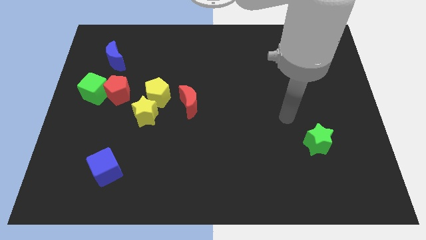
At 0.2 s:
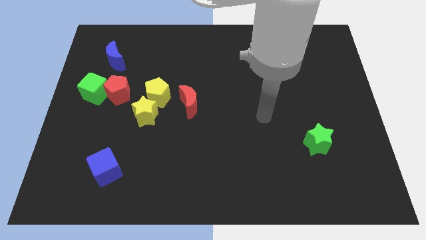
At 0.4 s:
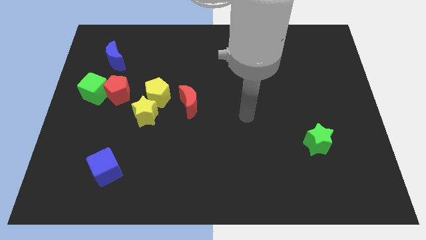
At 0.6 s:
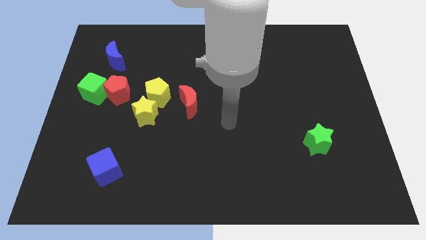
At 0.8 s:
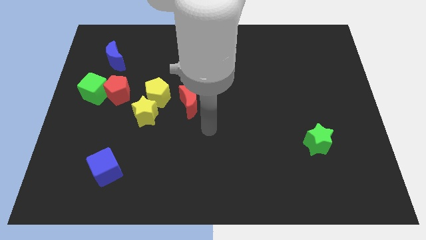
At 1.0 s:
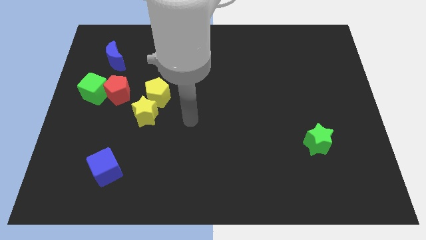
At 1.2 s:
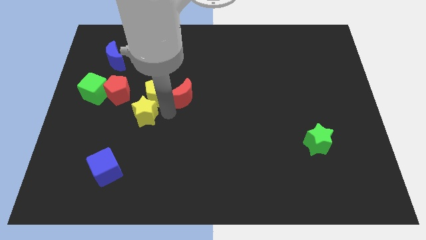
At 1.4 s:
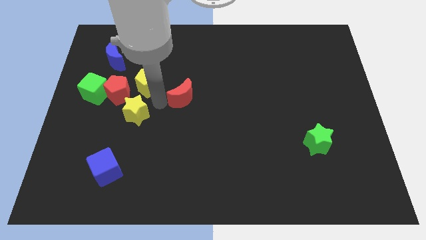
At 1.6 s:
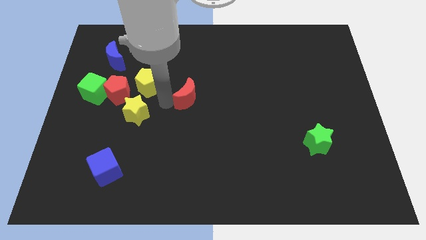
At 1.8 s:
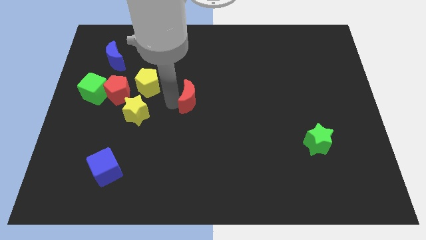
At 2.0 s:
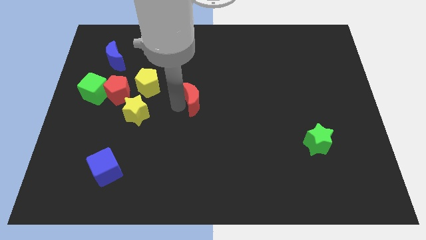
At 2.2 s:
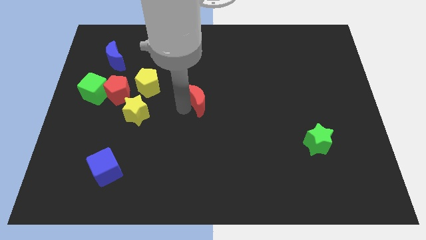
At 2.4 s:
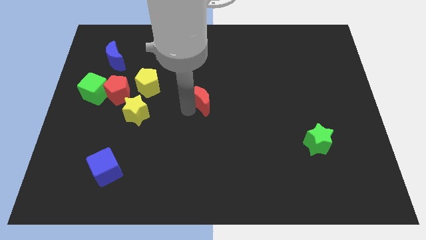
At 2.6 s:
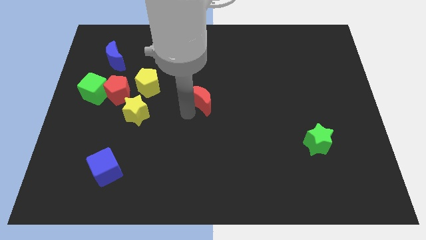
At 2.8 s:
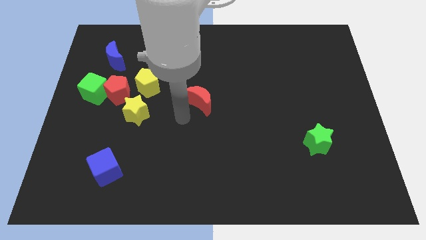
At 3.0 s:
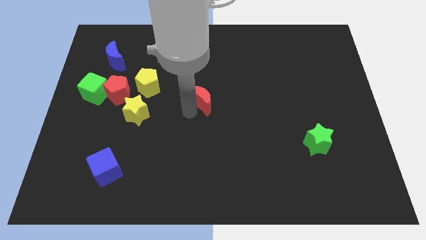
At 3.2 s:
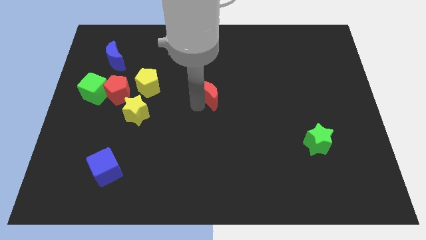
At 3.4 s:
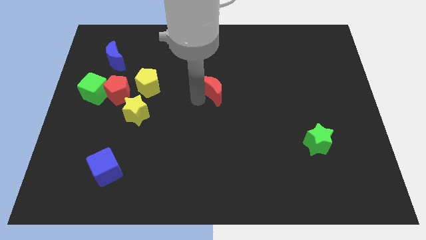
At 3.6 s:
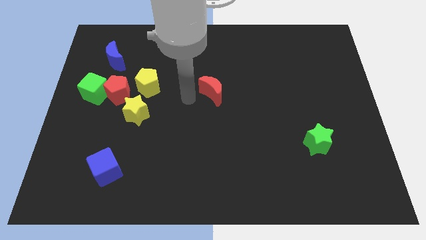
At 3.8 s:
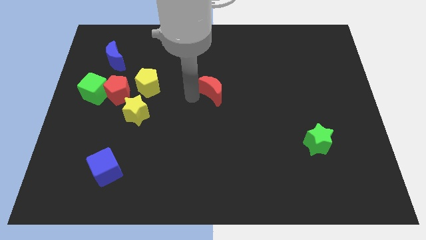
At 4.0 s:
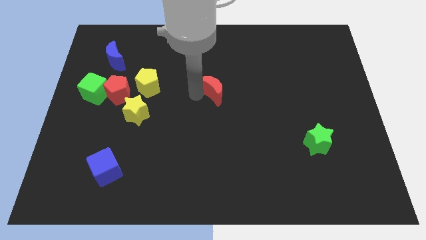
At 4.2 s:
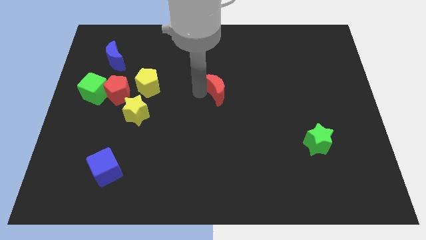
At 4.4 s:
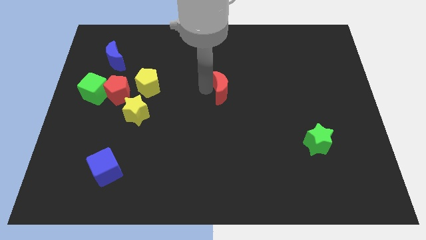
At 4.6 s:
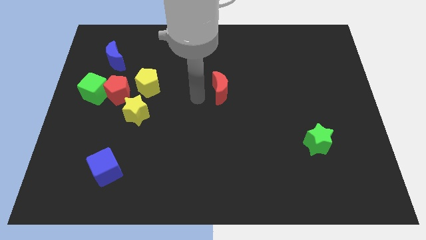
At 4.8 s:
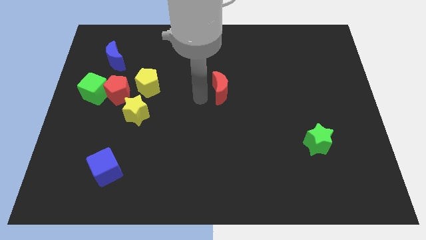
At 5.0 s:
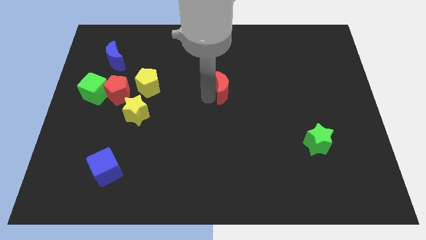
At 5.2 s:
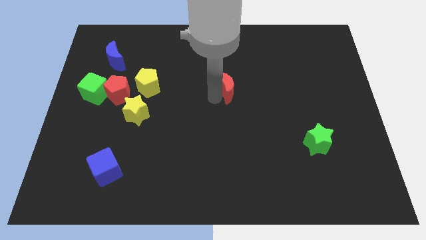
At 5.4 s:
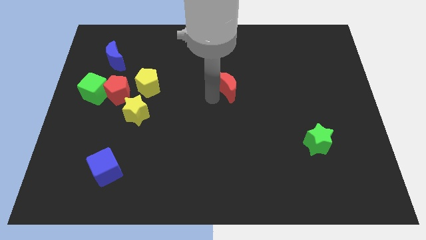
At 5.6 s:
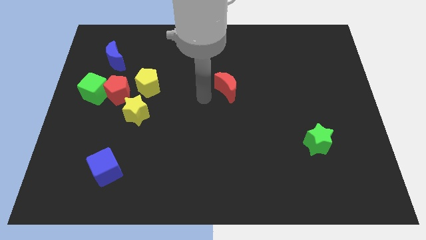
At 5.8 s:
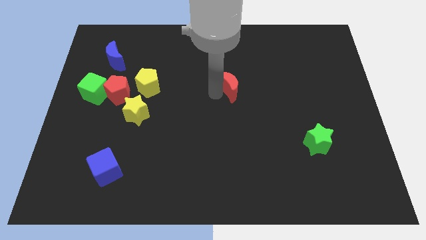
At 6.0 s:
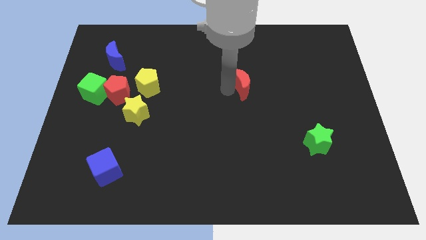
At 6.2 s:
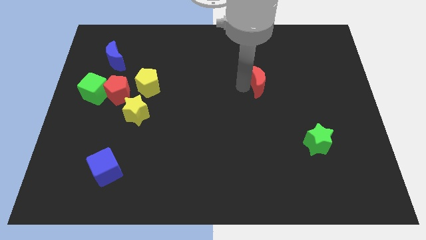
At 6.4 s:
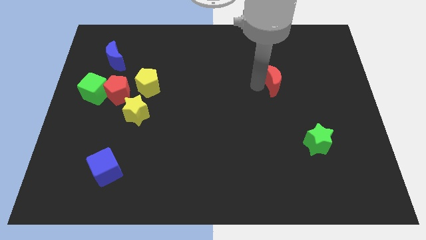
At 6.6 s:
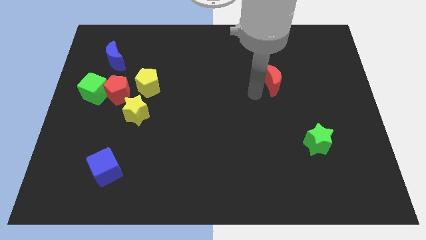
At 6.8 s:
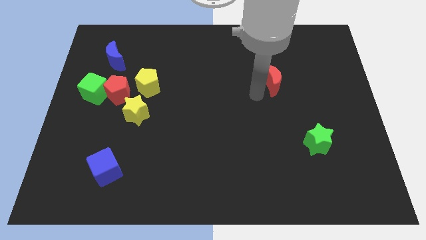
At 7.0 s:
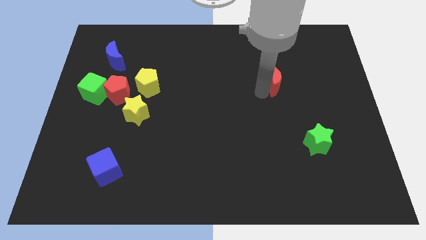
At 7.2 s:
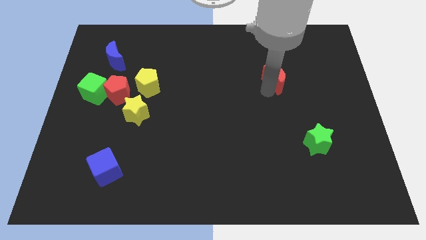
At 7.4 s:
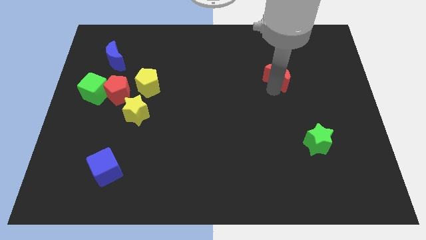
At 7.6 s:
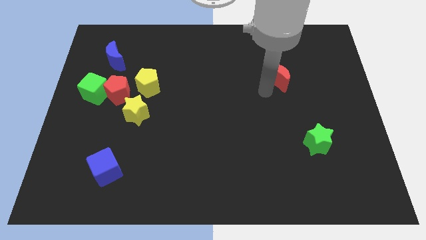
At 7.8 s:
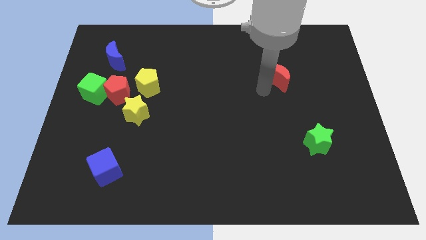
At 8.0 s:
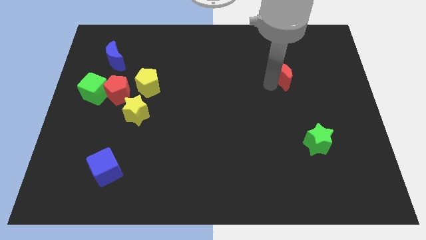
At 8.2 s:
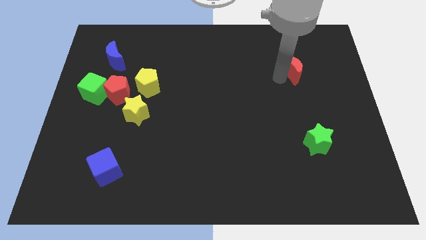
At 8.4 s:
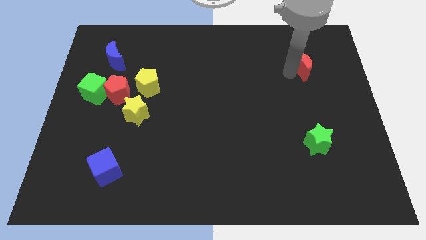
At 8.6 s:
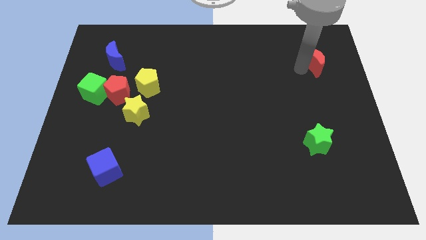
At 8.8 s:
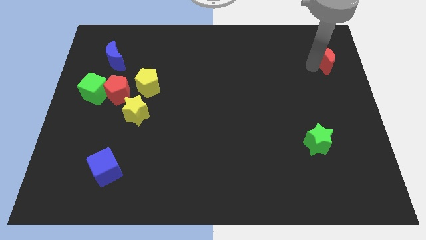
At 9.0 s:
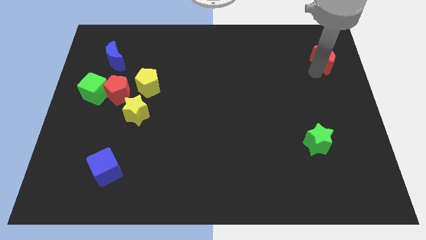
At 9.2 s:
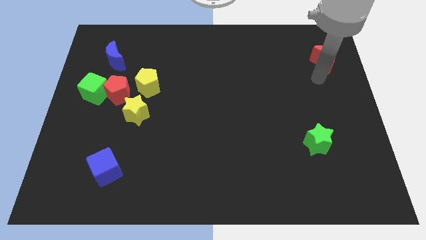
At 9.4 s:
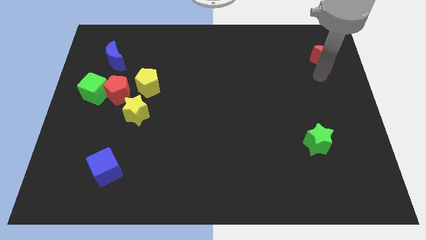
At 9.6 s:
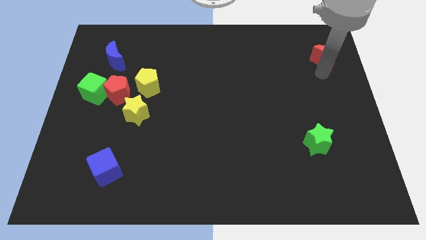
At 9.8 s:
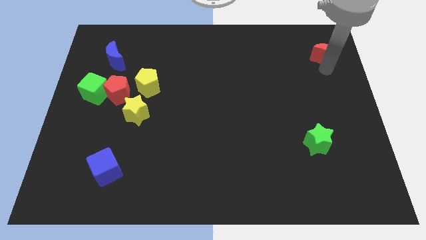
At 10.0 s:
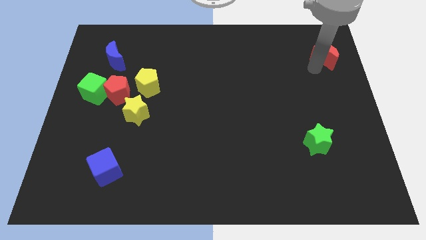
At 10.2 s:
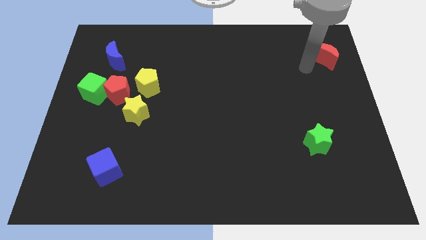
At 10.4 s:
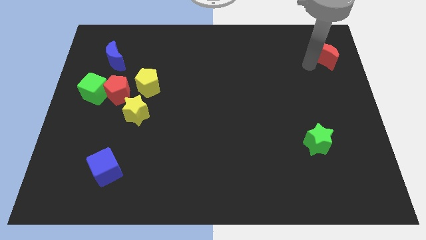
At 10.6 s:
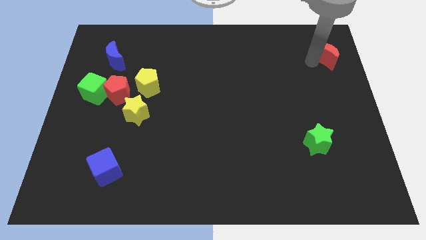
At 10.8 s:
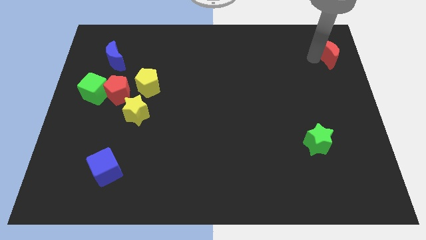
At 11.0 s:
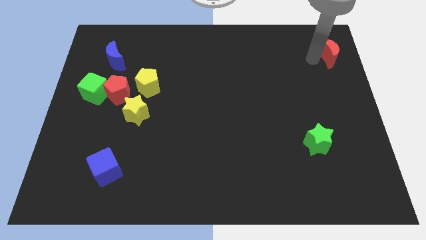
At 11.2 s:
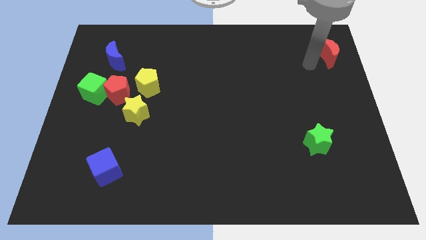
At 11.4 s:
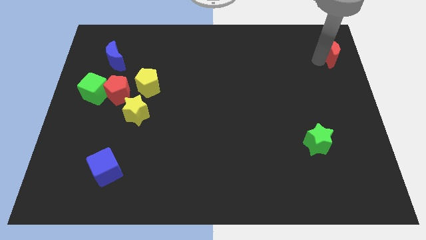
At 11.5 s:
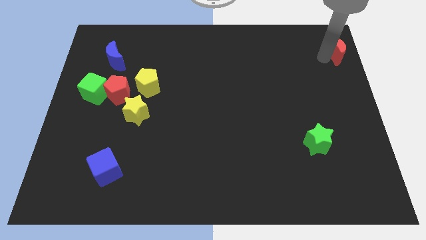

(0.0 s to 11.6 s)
put the red moon to the top right

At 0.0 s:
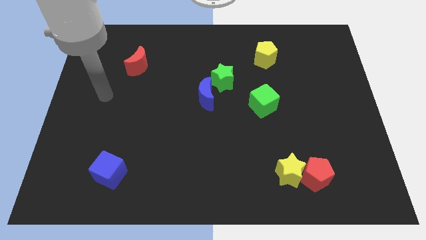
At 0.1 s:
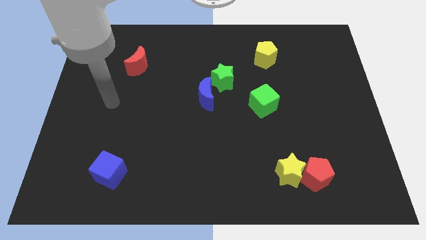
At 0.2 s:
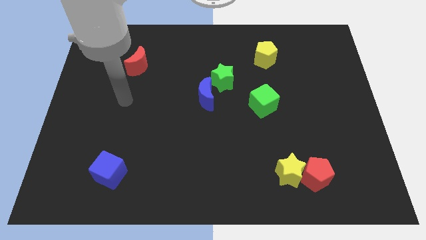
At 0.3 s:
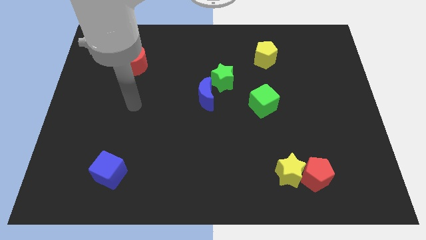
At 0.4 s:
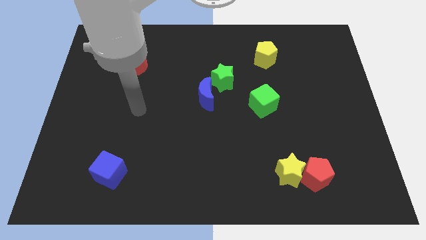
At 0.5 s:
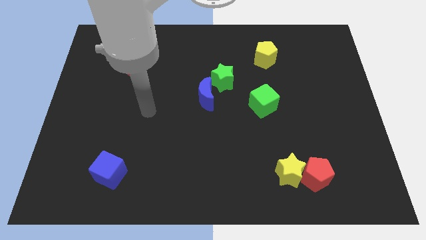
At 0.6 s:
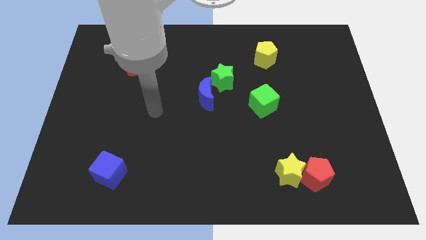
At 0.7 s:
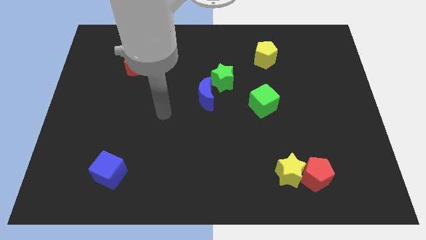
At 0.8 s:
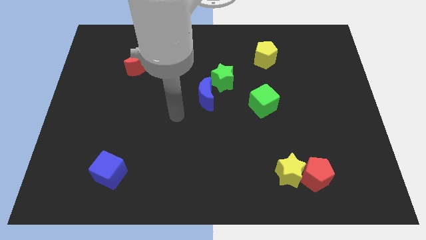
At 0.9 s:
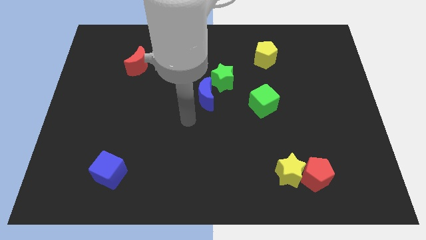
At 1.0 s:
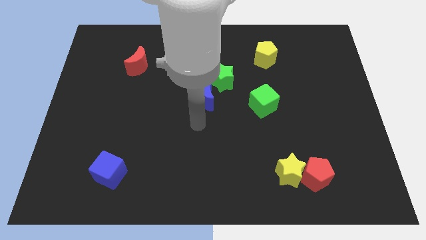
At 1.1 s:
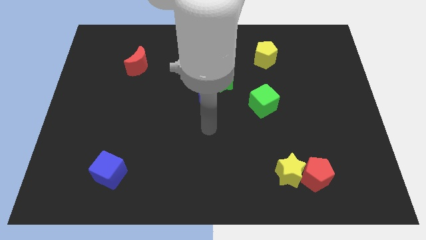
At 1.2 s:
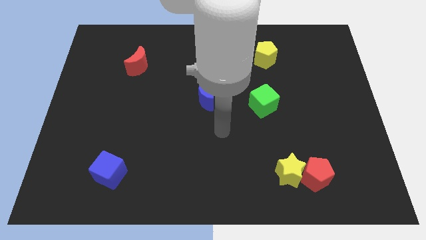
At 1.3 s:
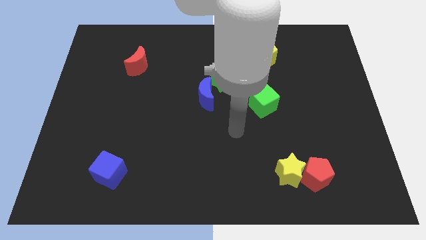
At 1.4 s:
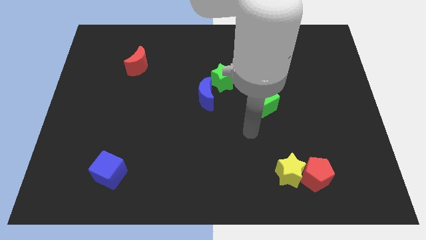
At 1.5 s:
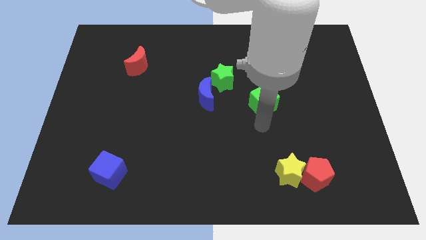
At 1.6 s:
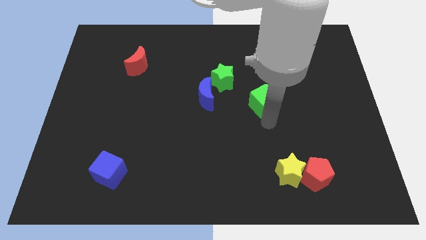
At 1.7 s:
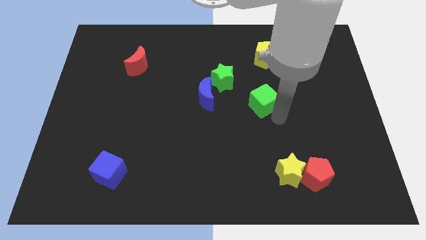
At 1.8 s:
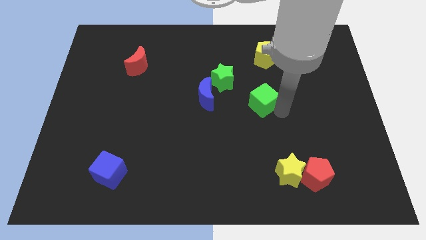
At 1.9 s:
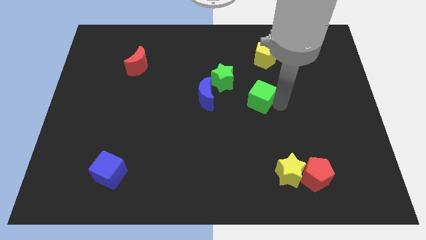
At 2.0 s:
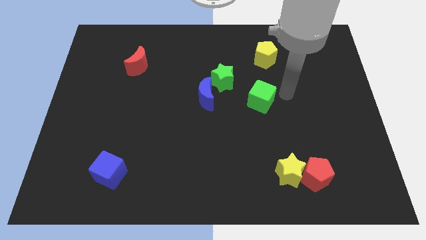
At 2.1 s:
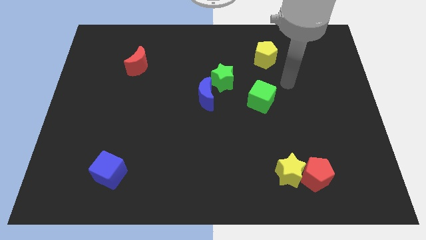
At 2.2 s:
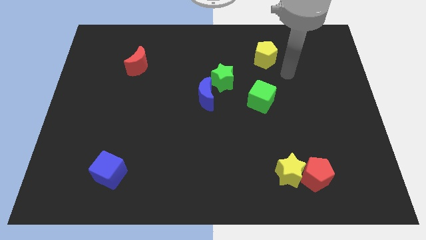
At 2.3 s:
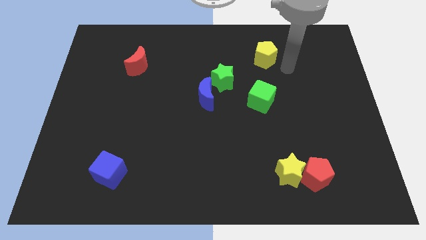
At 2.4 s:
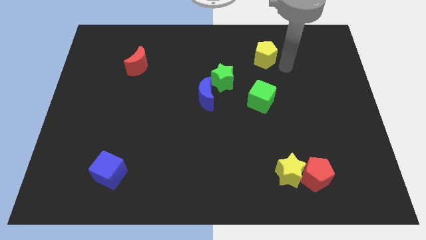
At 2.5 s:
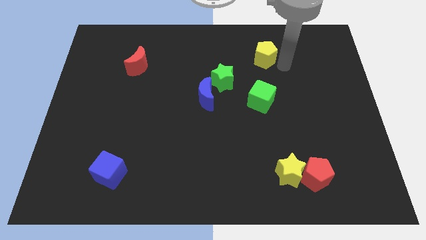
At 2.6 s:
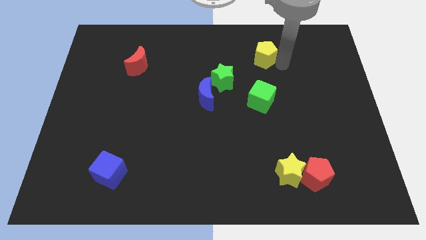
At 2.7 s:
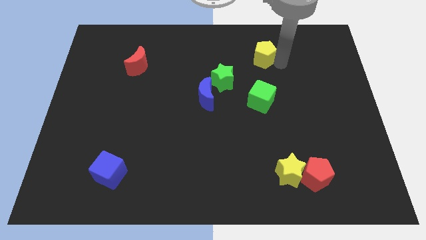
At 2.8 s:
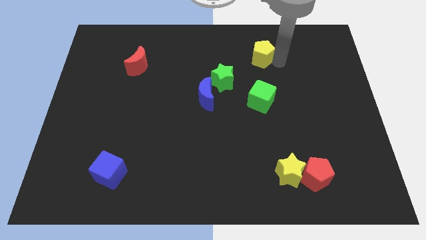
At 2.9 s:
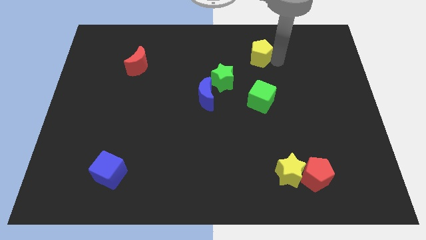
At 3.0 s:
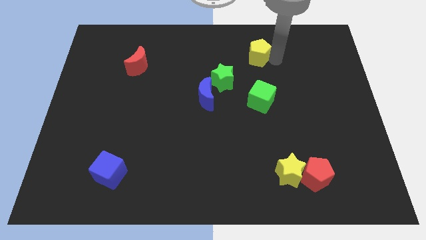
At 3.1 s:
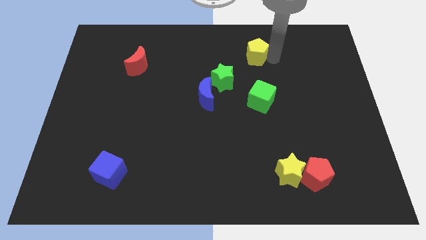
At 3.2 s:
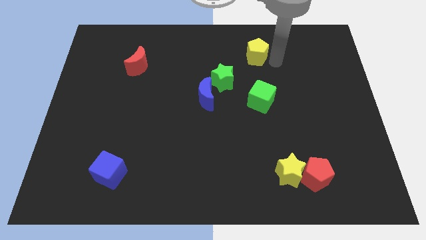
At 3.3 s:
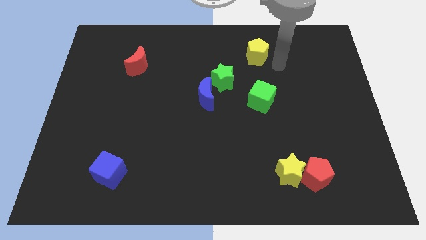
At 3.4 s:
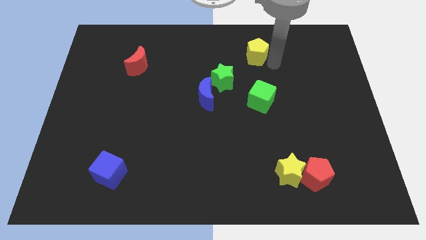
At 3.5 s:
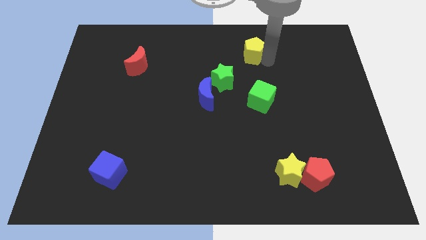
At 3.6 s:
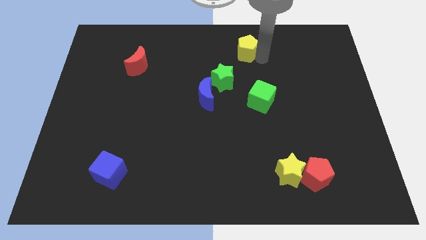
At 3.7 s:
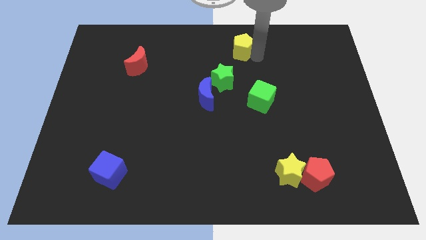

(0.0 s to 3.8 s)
push the yellow pentagon to the towards your base
